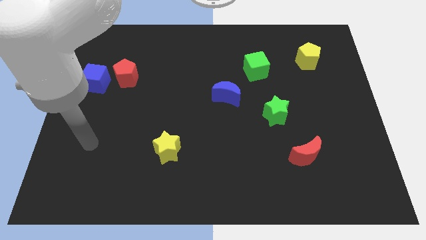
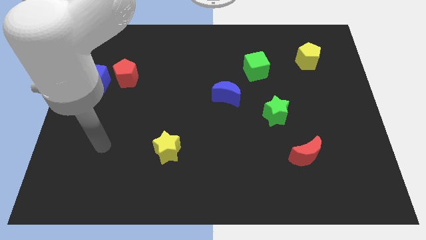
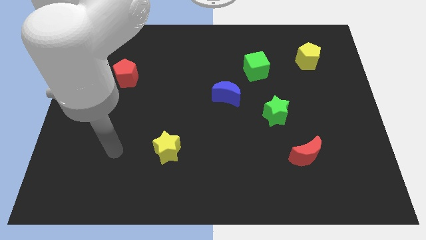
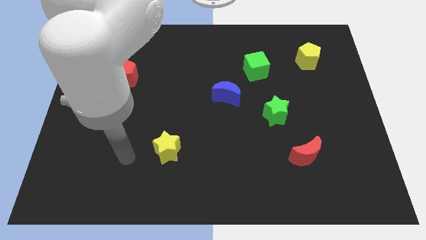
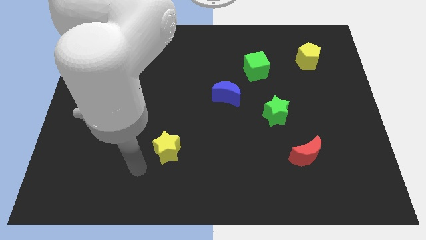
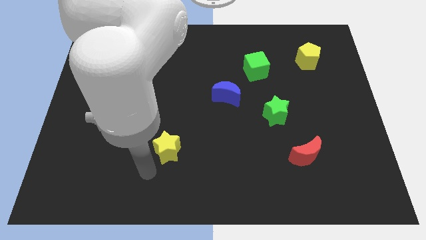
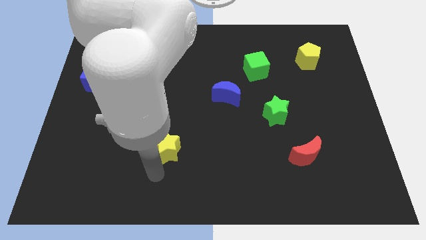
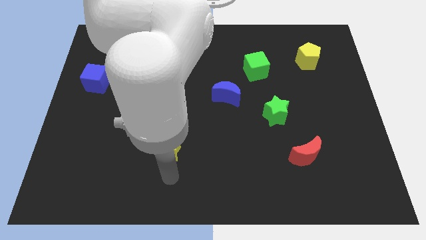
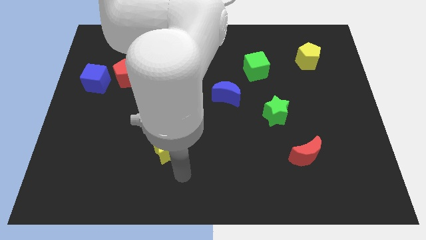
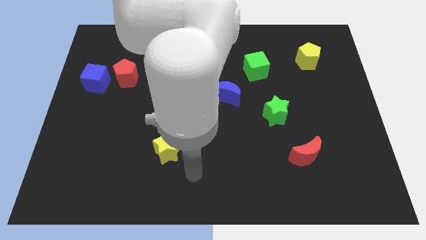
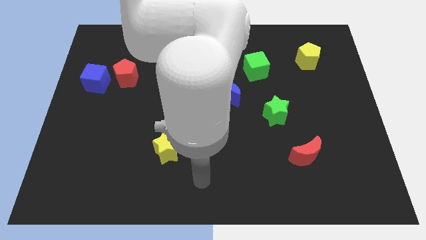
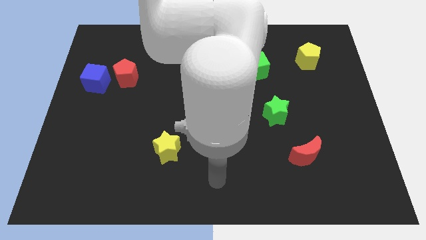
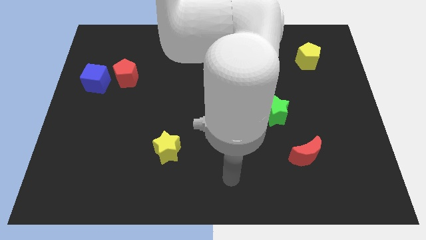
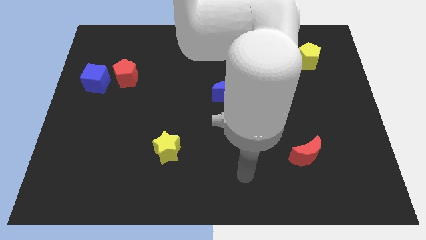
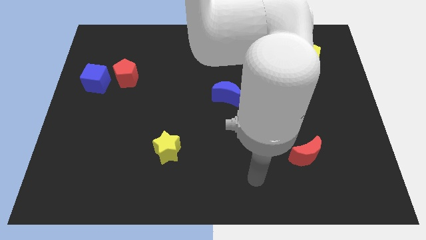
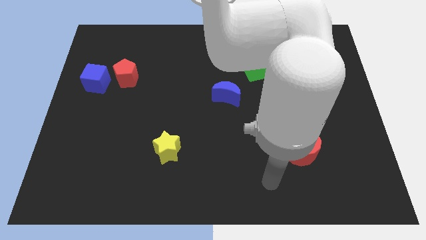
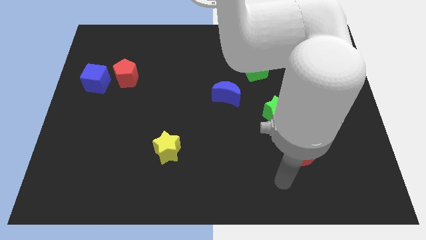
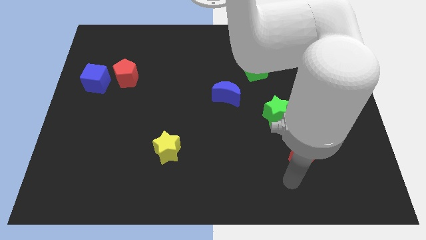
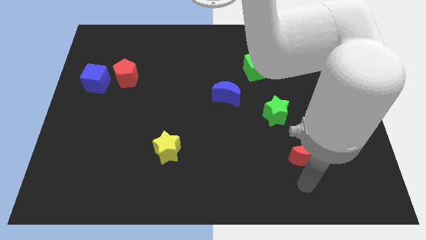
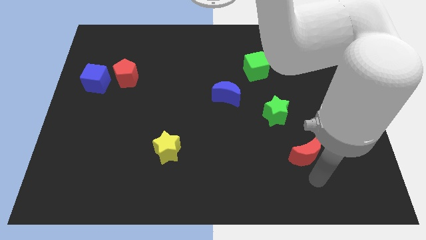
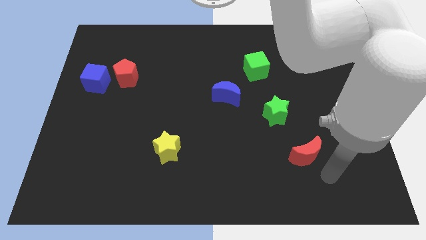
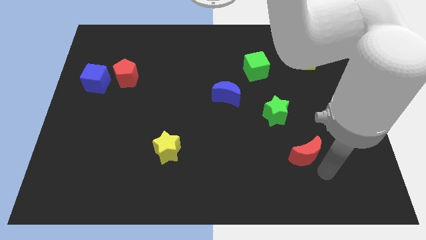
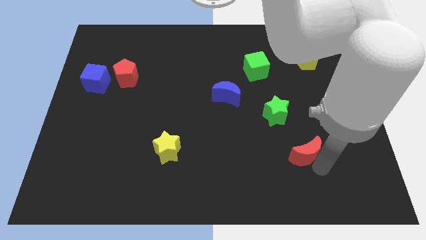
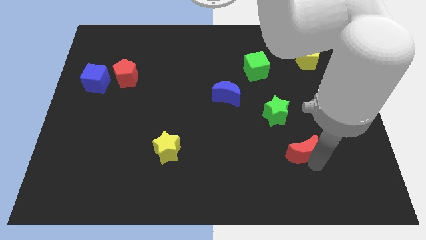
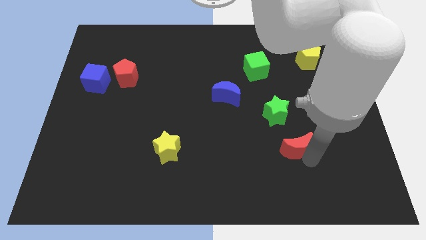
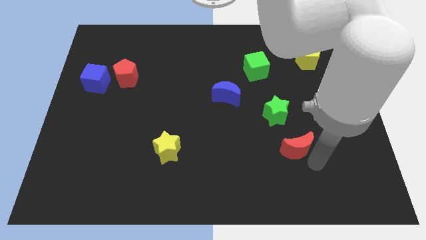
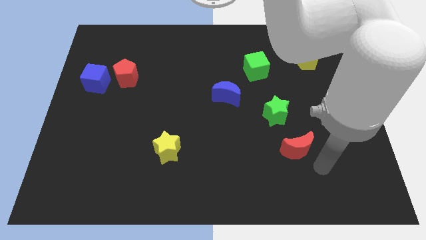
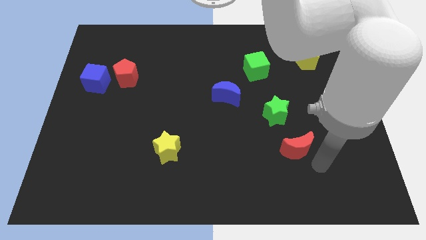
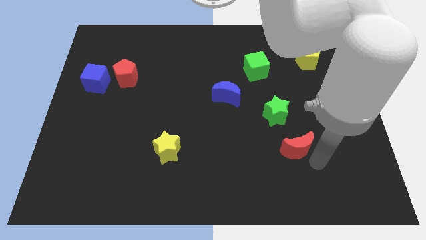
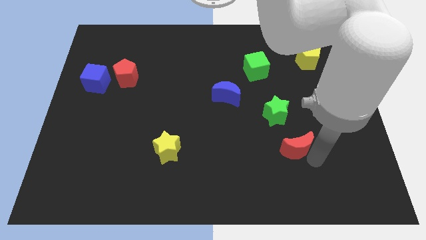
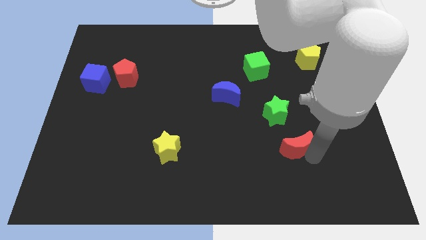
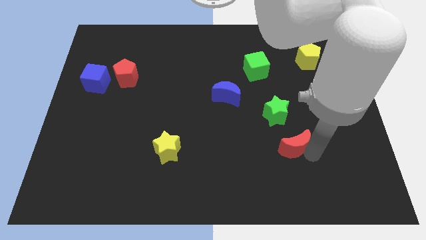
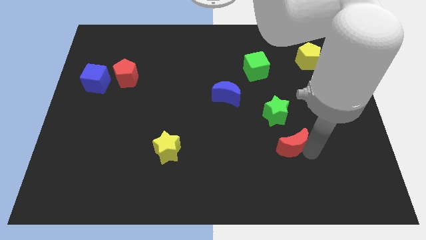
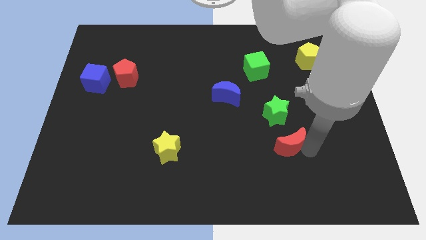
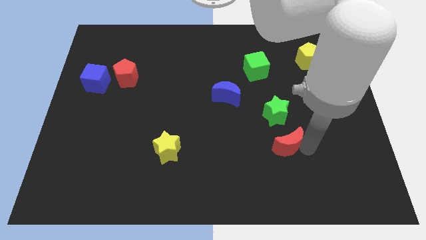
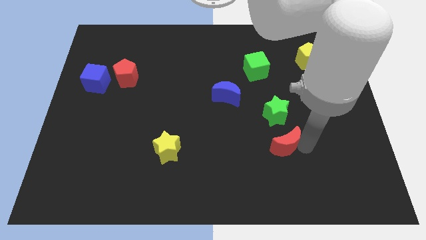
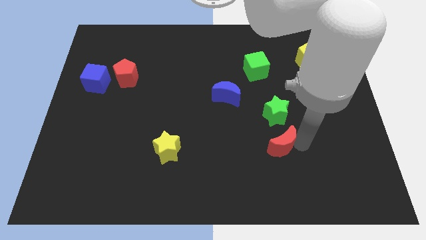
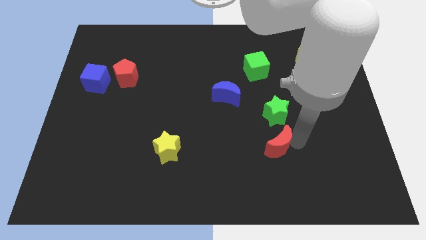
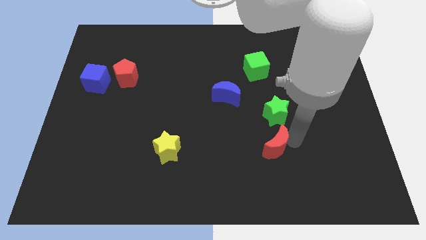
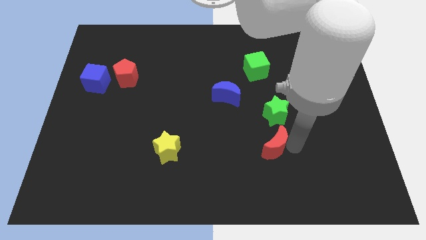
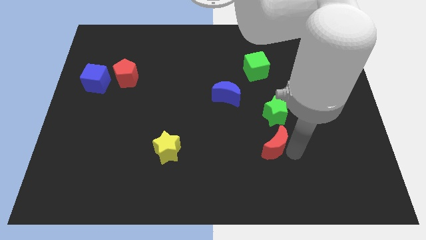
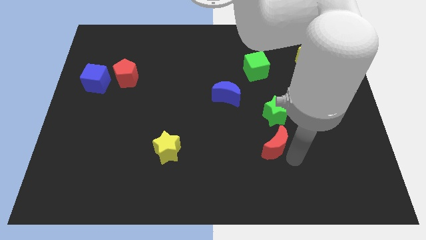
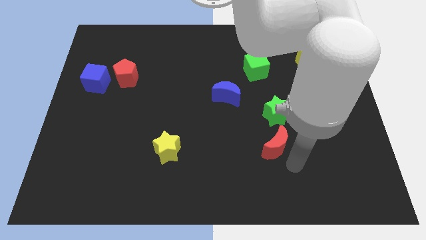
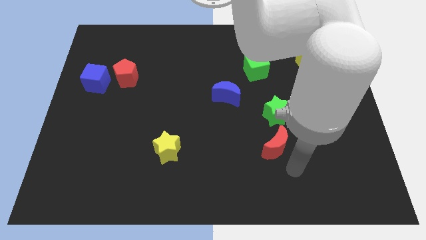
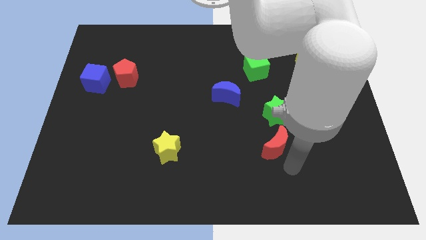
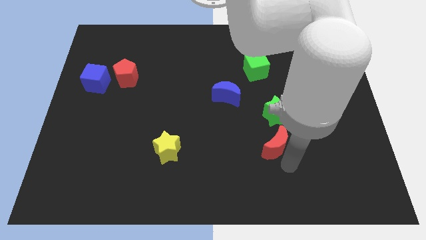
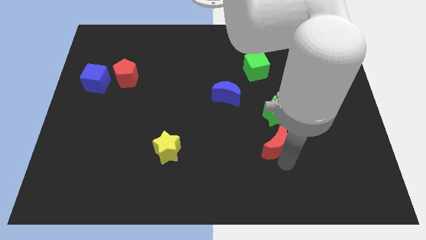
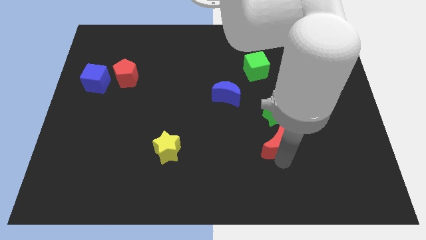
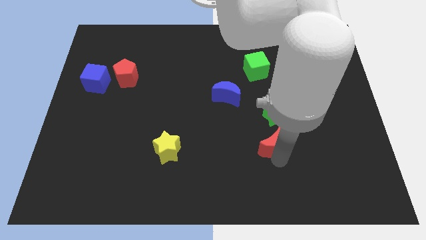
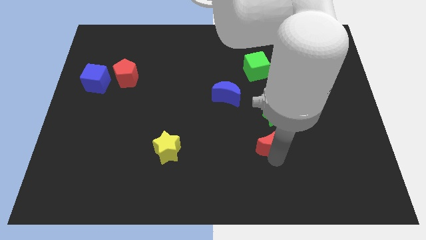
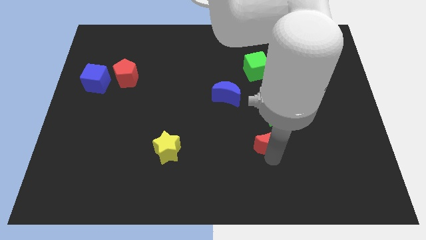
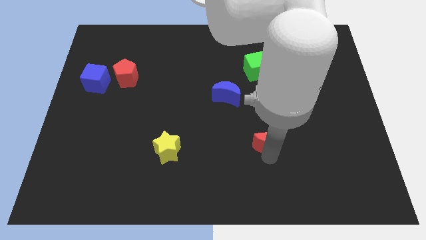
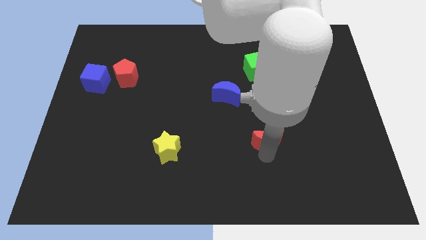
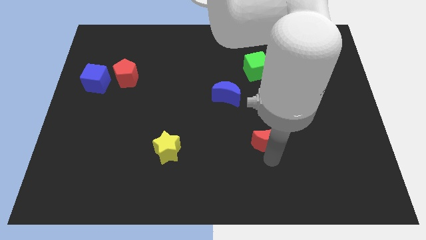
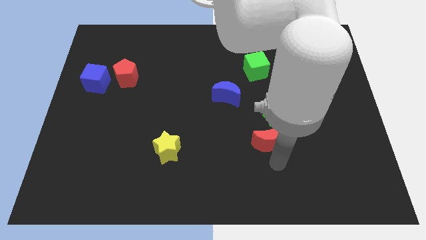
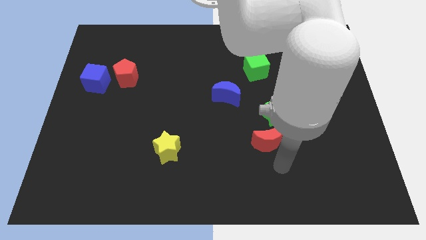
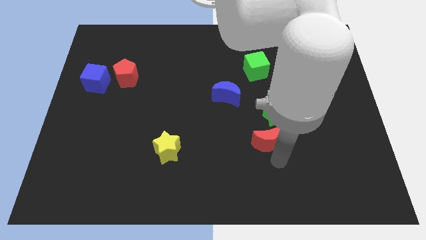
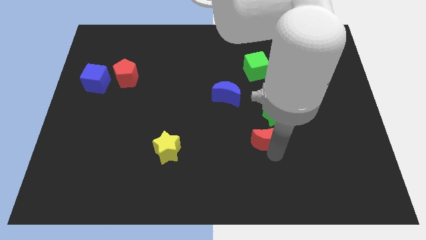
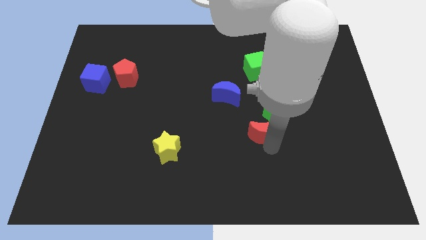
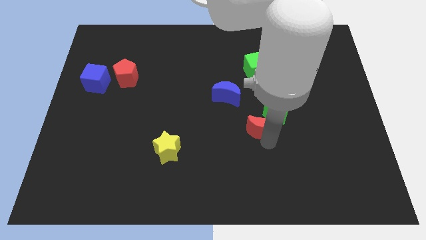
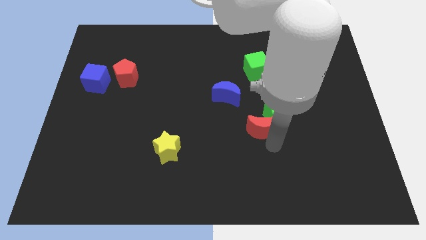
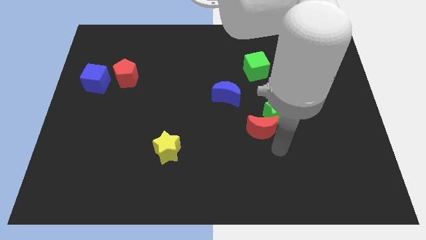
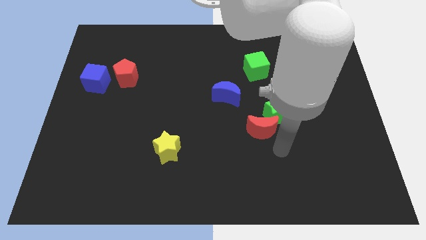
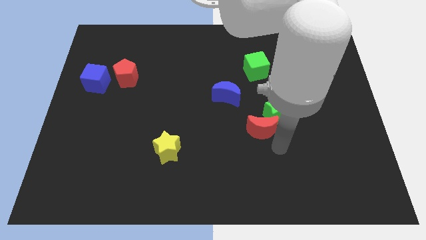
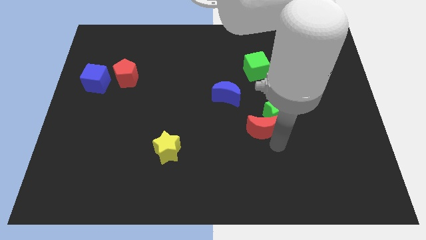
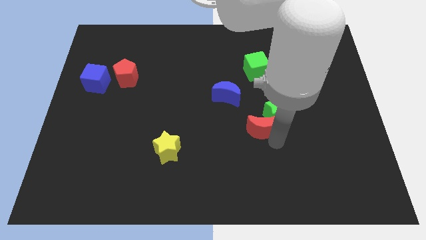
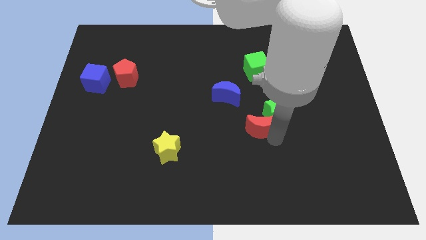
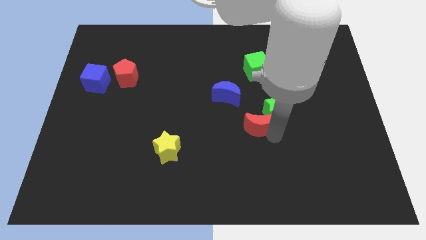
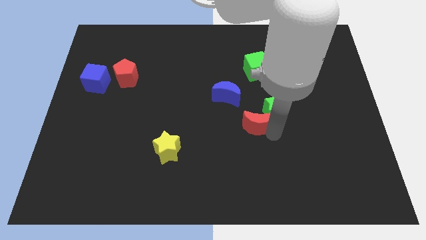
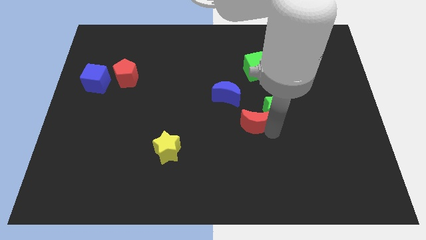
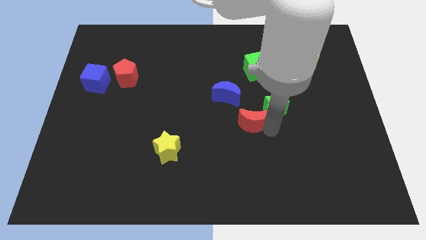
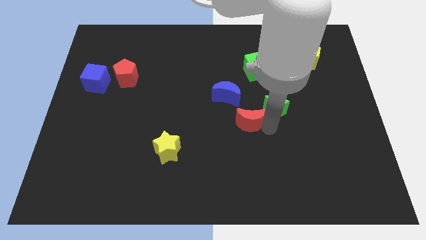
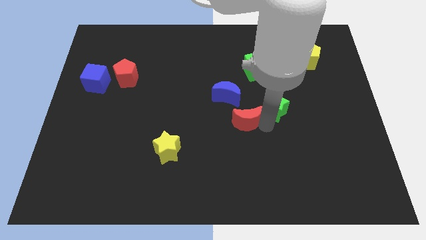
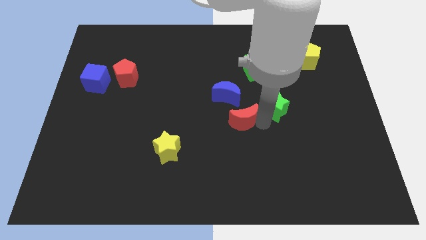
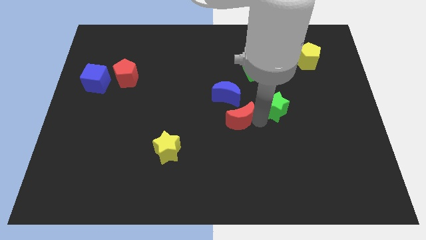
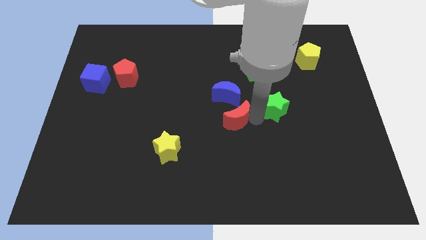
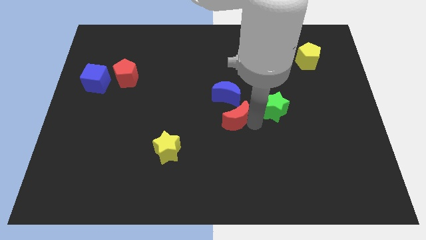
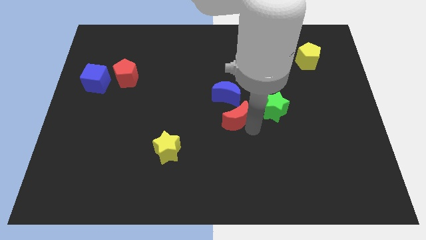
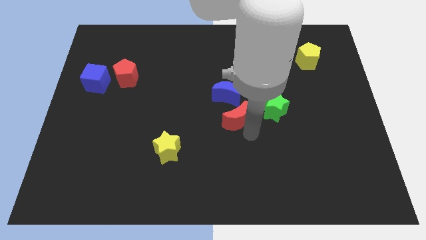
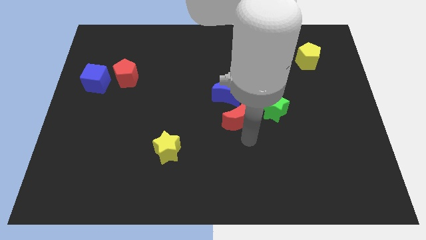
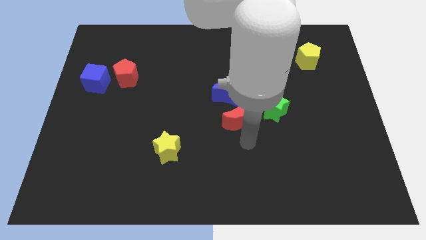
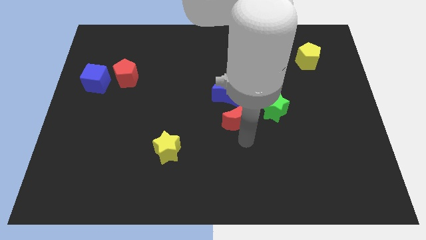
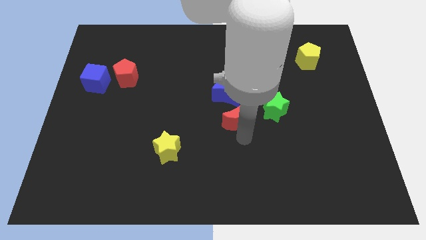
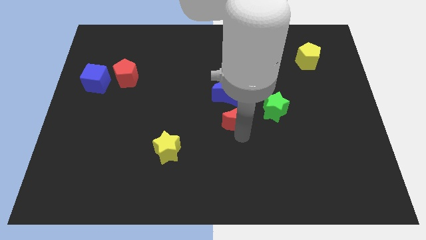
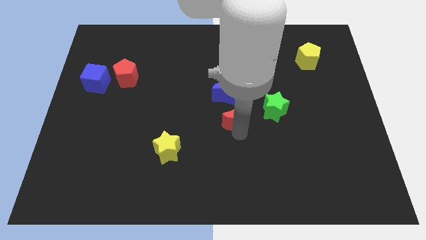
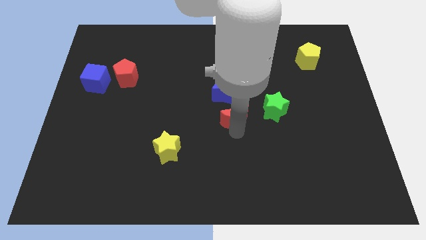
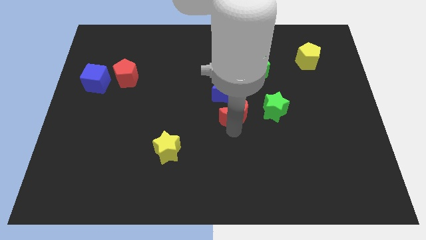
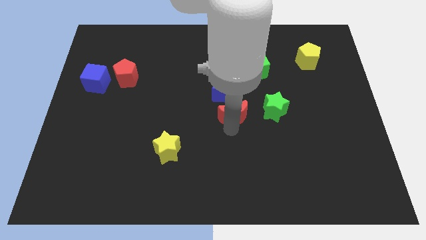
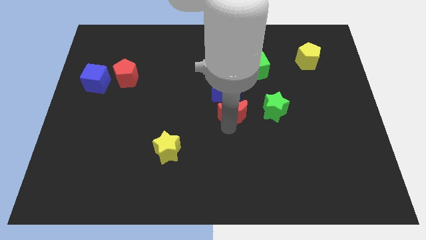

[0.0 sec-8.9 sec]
push the red moon to the blue moon
